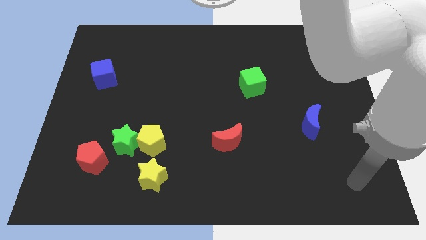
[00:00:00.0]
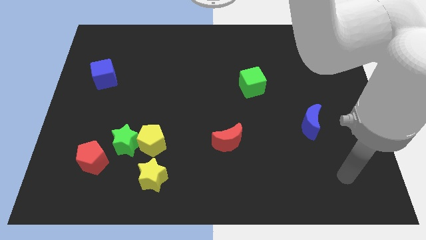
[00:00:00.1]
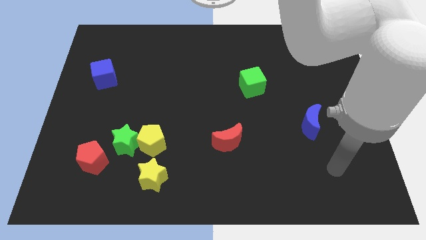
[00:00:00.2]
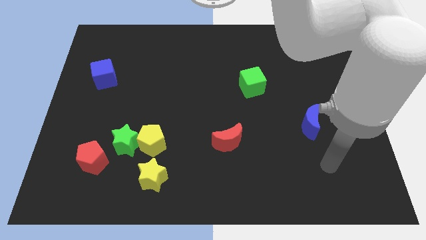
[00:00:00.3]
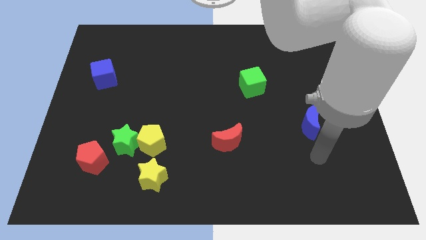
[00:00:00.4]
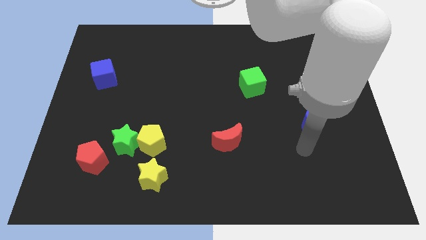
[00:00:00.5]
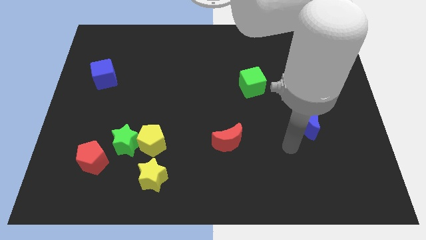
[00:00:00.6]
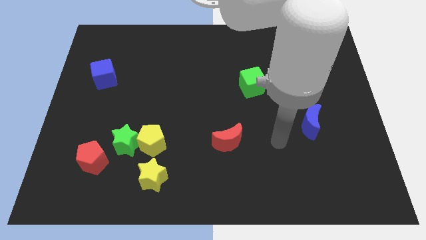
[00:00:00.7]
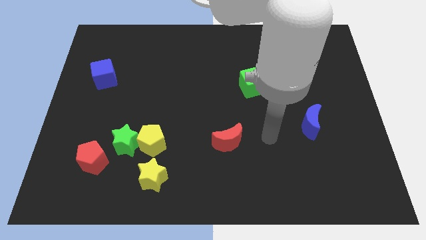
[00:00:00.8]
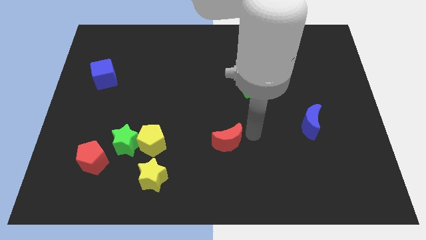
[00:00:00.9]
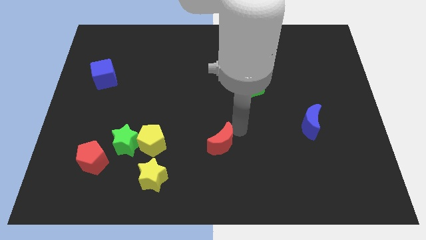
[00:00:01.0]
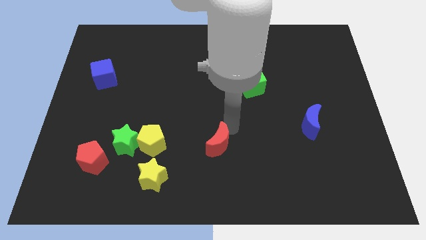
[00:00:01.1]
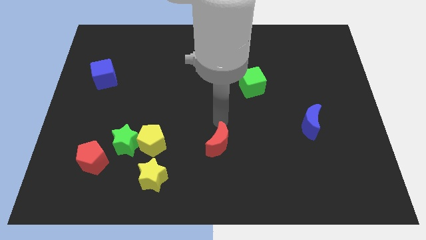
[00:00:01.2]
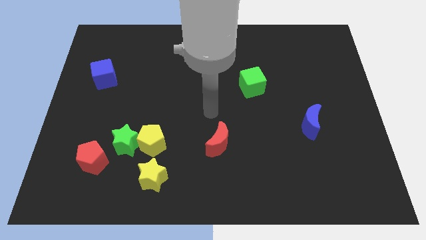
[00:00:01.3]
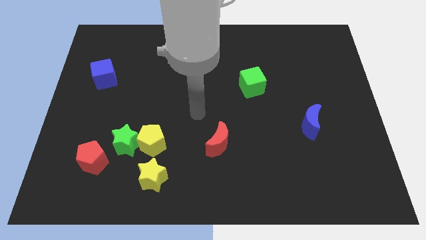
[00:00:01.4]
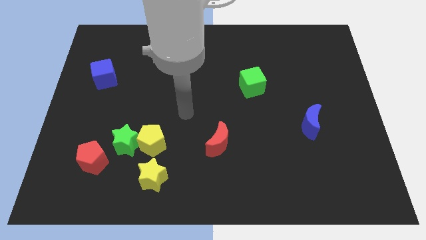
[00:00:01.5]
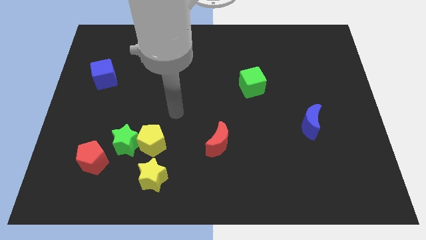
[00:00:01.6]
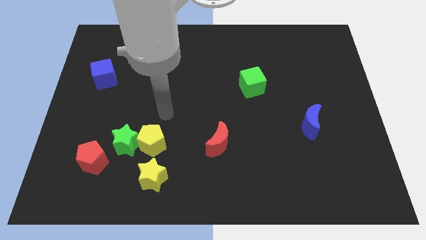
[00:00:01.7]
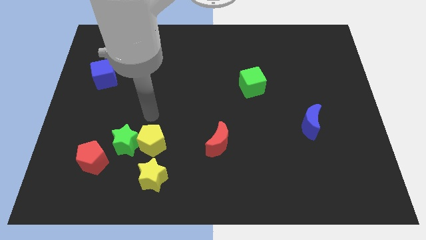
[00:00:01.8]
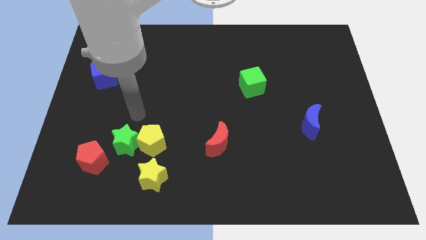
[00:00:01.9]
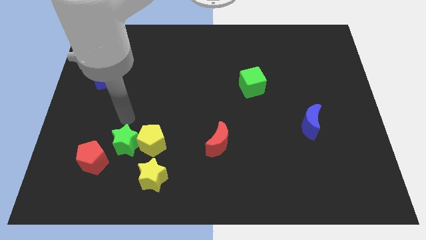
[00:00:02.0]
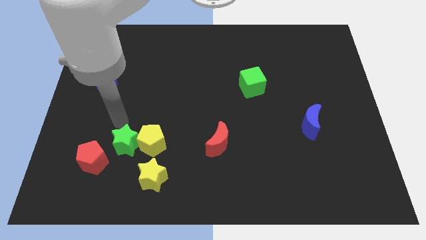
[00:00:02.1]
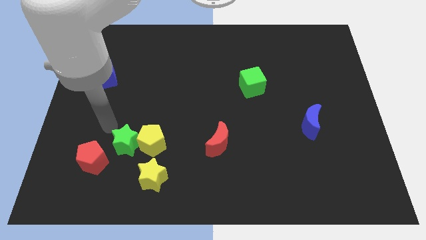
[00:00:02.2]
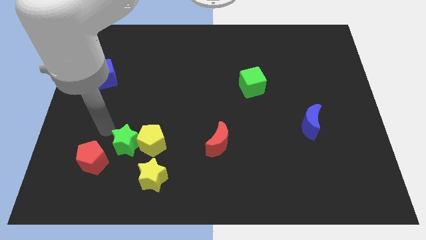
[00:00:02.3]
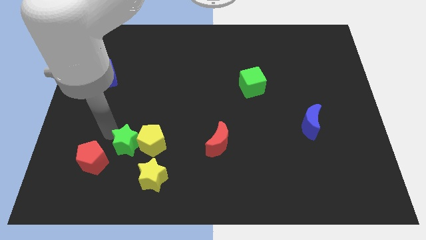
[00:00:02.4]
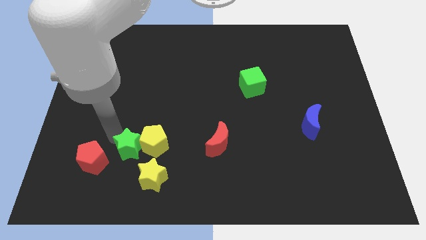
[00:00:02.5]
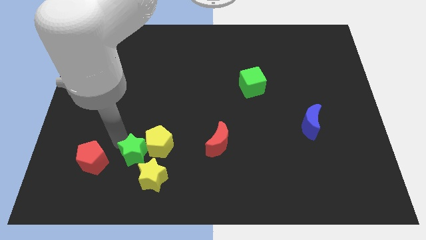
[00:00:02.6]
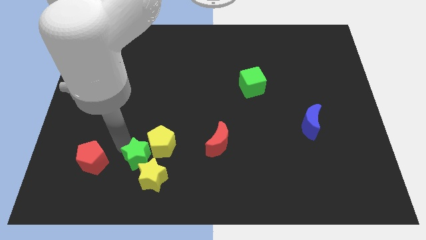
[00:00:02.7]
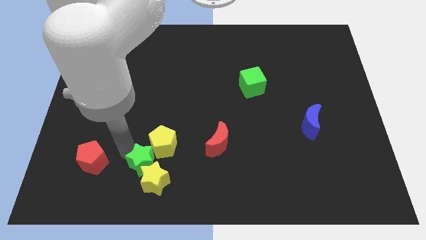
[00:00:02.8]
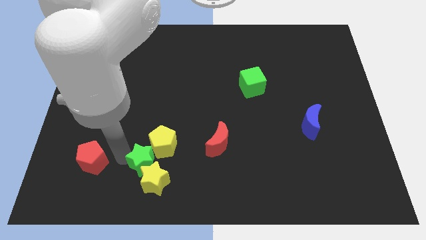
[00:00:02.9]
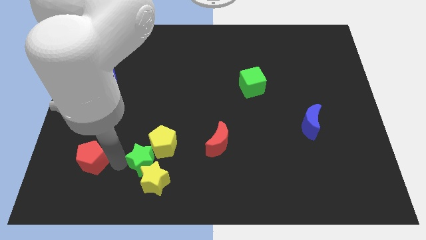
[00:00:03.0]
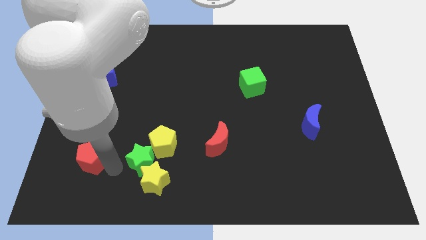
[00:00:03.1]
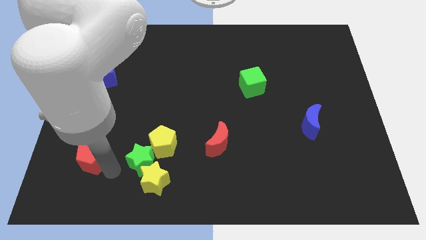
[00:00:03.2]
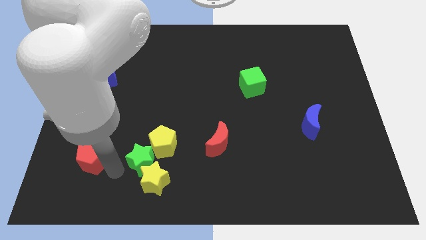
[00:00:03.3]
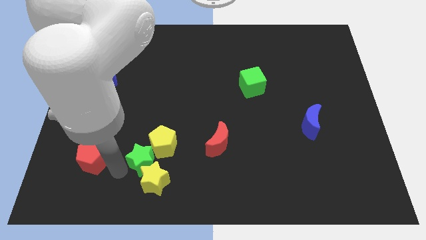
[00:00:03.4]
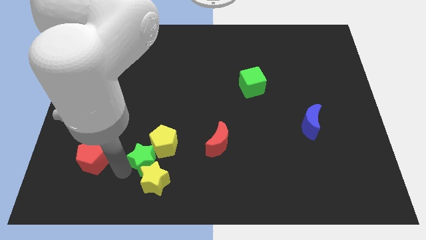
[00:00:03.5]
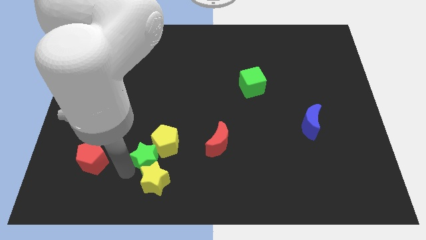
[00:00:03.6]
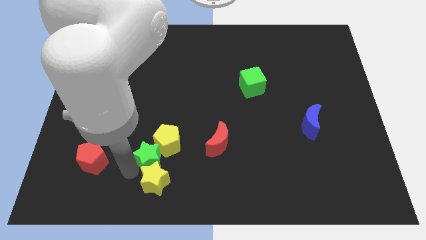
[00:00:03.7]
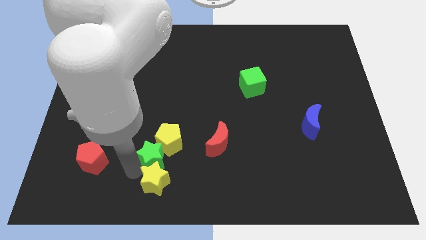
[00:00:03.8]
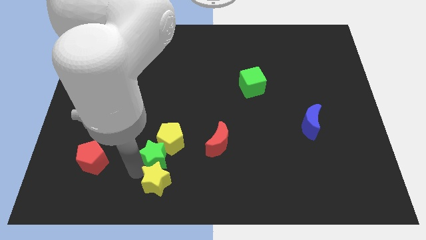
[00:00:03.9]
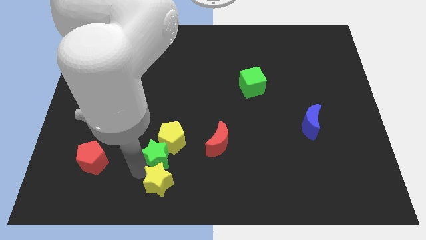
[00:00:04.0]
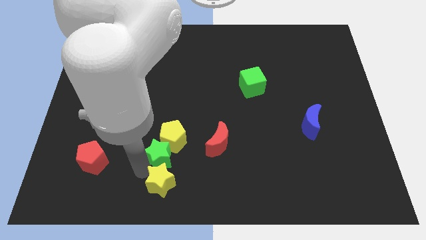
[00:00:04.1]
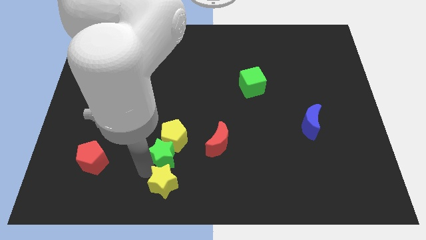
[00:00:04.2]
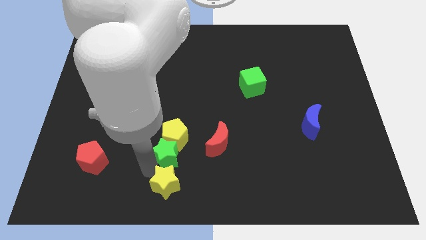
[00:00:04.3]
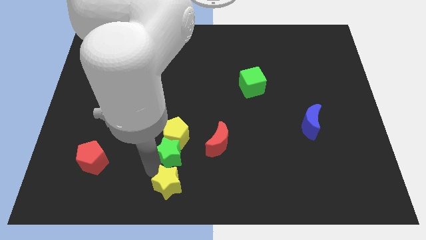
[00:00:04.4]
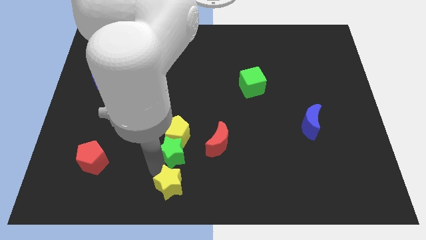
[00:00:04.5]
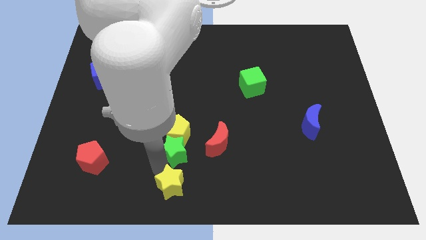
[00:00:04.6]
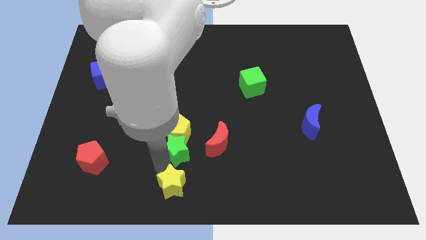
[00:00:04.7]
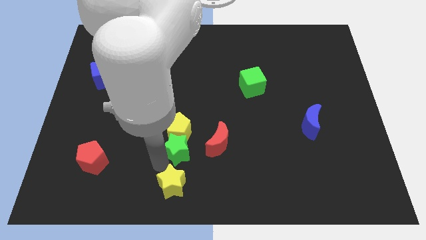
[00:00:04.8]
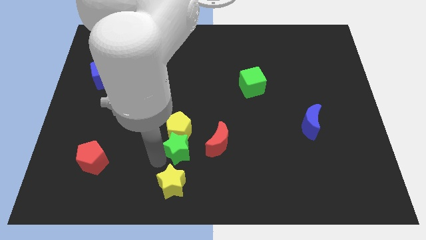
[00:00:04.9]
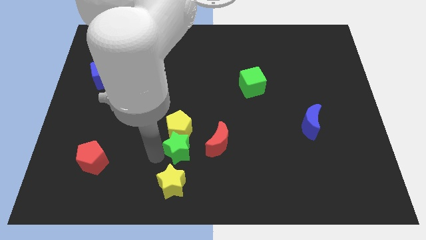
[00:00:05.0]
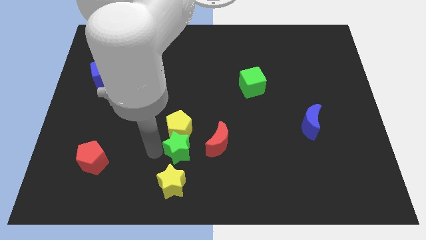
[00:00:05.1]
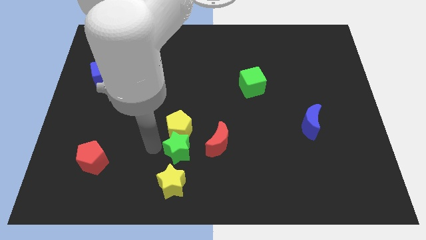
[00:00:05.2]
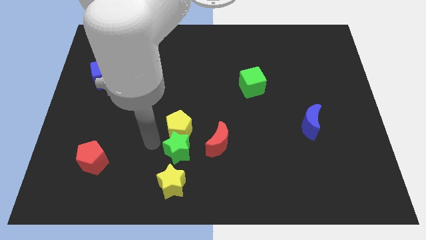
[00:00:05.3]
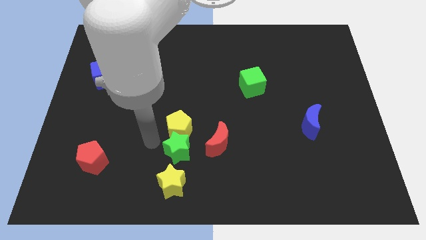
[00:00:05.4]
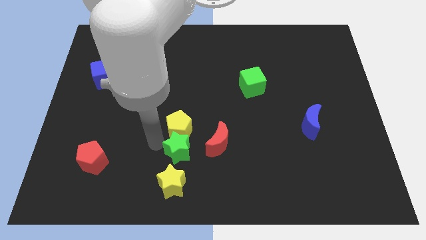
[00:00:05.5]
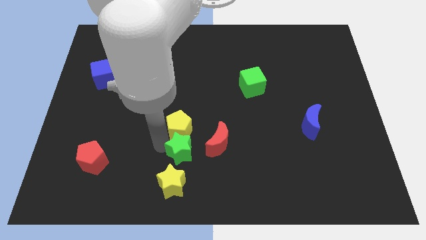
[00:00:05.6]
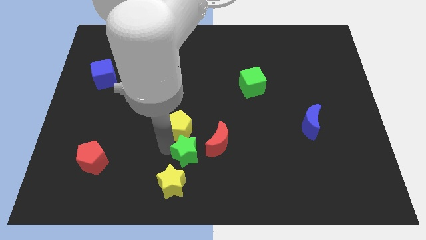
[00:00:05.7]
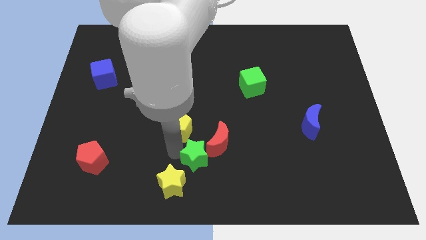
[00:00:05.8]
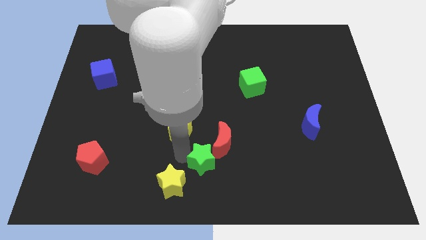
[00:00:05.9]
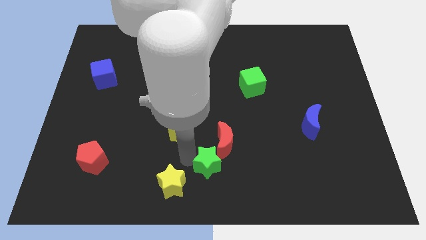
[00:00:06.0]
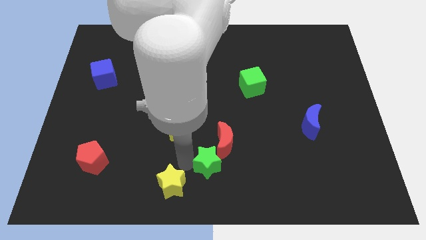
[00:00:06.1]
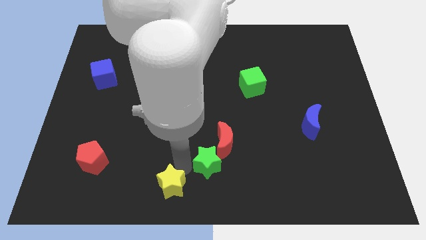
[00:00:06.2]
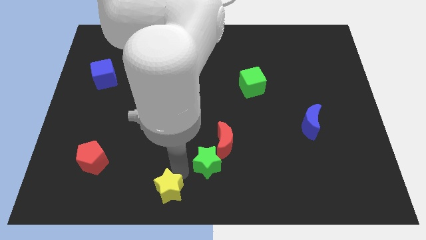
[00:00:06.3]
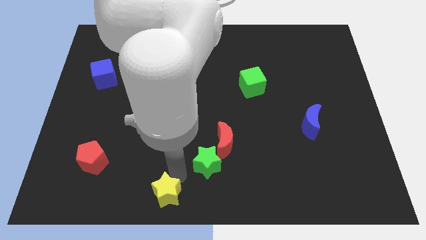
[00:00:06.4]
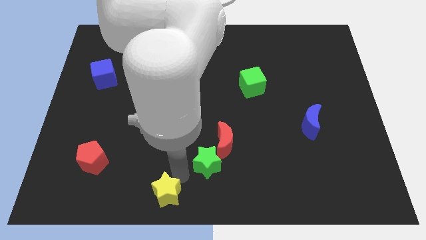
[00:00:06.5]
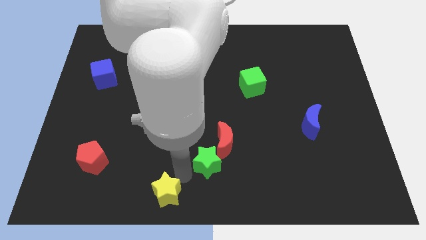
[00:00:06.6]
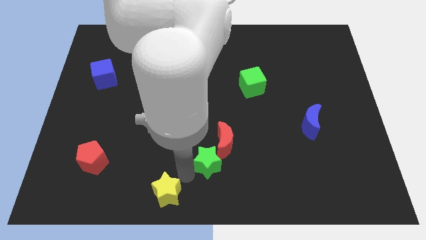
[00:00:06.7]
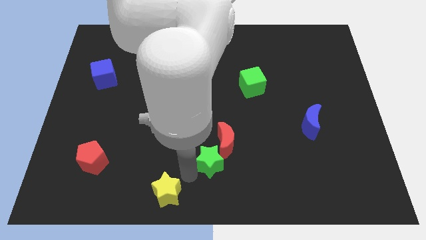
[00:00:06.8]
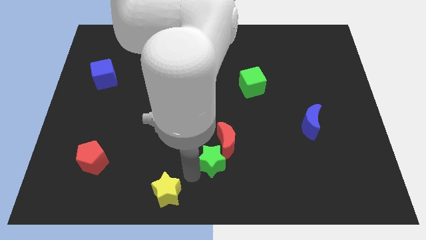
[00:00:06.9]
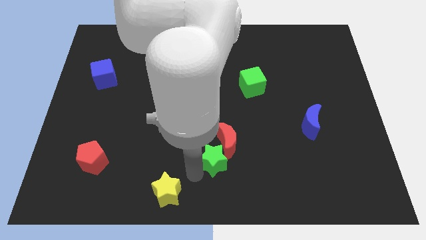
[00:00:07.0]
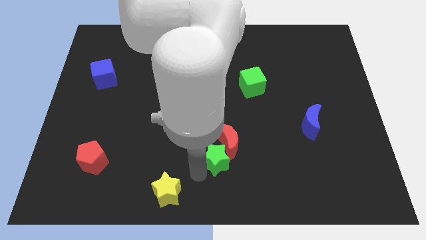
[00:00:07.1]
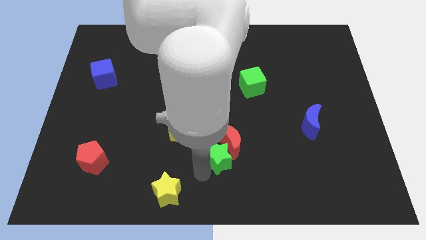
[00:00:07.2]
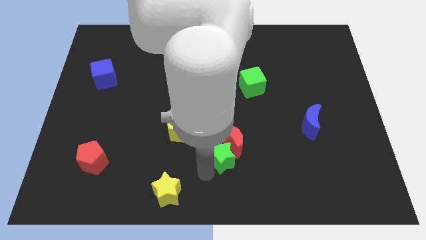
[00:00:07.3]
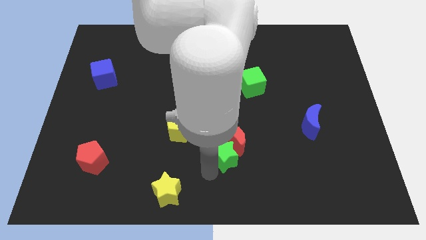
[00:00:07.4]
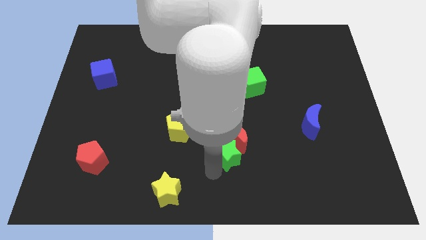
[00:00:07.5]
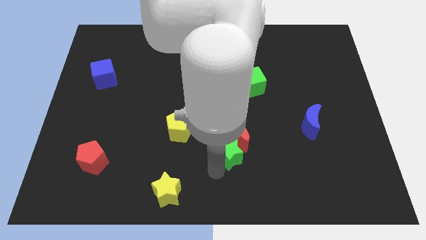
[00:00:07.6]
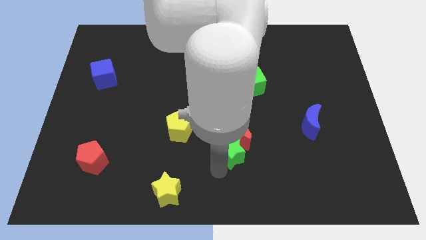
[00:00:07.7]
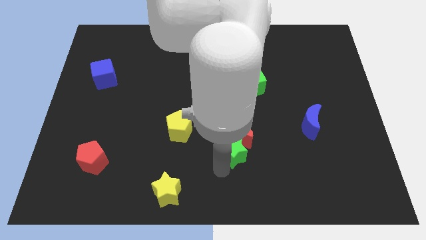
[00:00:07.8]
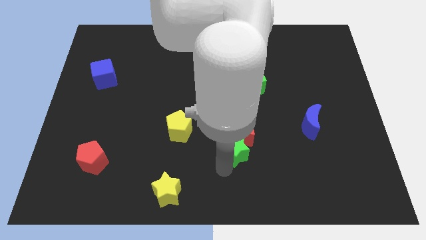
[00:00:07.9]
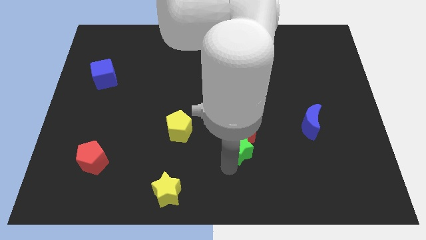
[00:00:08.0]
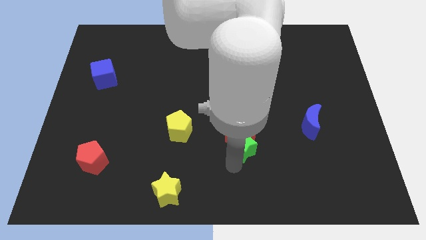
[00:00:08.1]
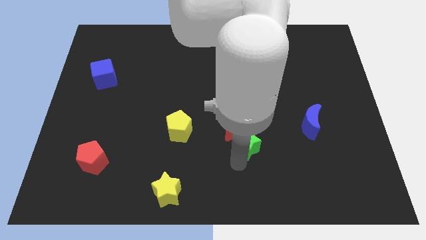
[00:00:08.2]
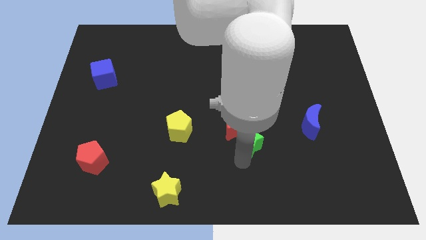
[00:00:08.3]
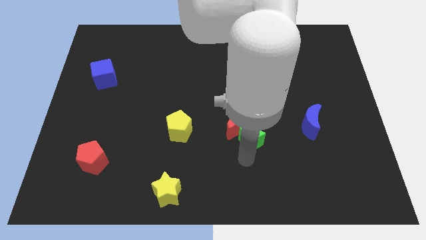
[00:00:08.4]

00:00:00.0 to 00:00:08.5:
slide the green star right of the red moon
